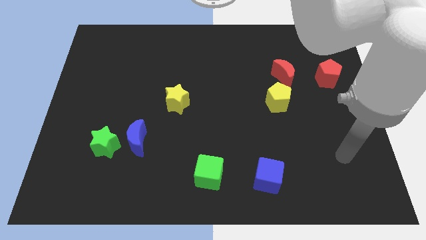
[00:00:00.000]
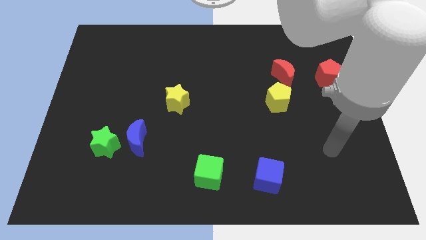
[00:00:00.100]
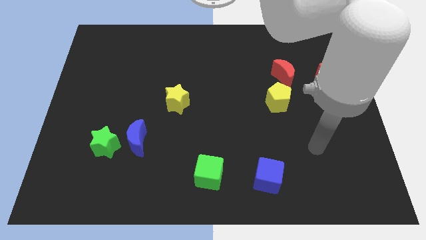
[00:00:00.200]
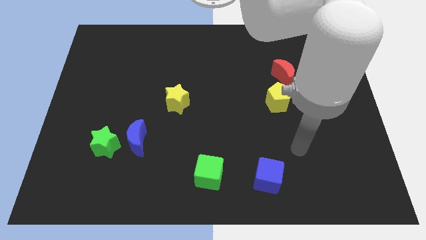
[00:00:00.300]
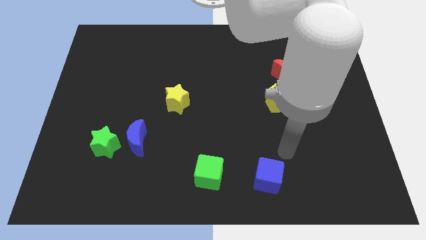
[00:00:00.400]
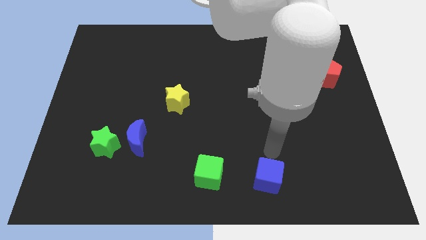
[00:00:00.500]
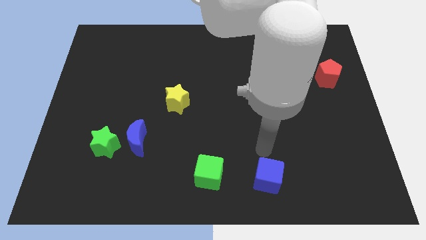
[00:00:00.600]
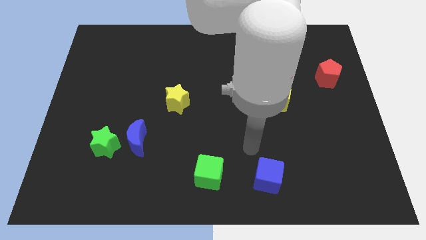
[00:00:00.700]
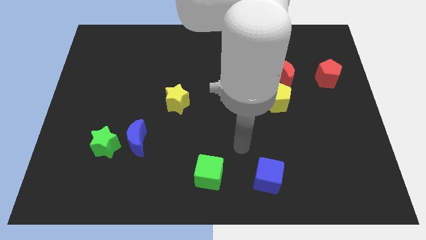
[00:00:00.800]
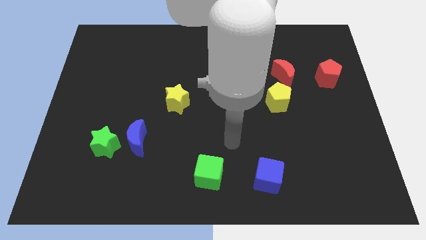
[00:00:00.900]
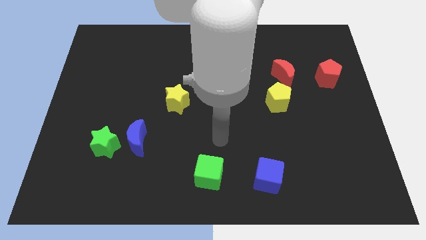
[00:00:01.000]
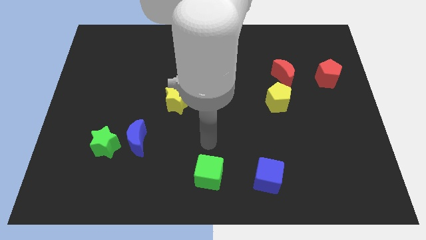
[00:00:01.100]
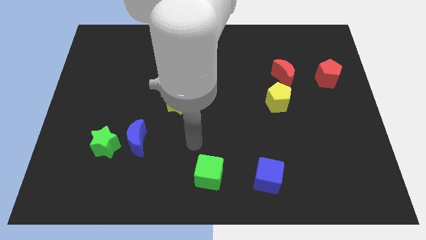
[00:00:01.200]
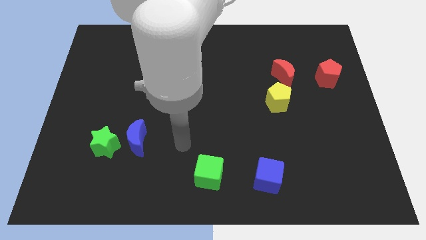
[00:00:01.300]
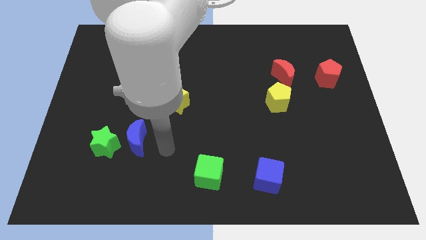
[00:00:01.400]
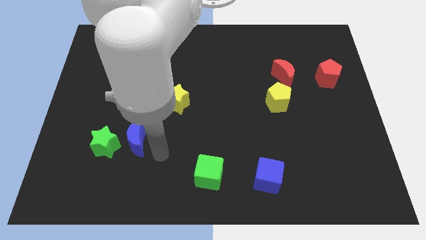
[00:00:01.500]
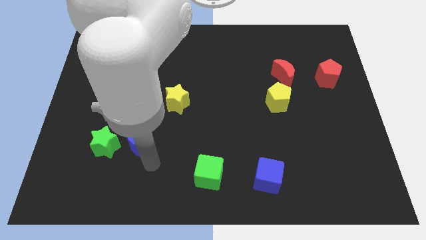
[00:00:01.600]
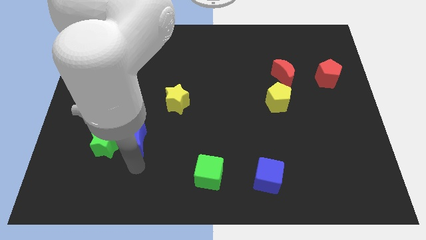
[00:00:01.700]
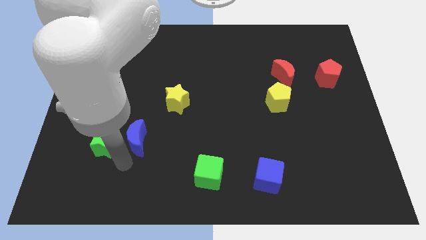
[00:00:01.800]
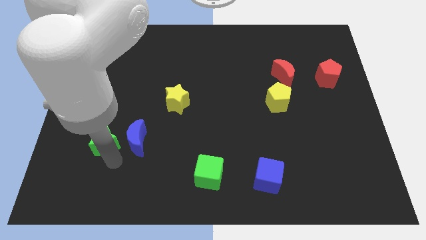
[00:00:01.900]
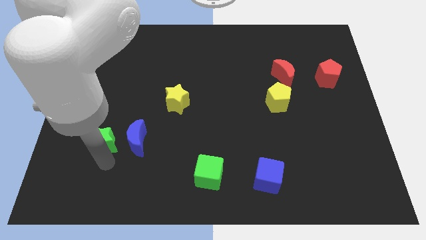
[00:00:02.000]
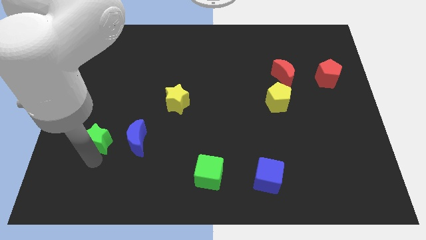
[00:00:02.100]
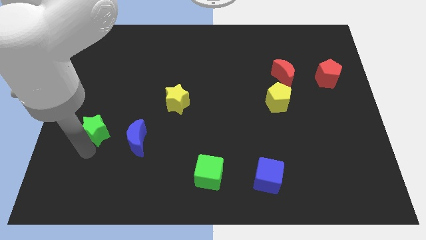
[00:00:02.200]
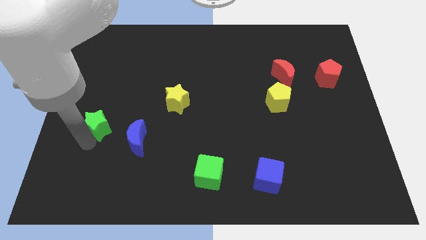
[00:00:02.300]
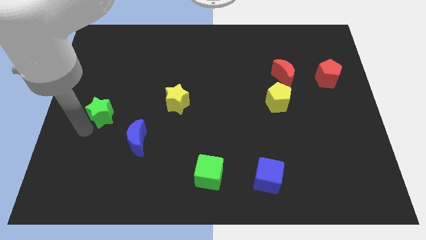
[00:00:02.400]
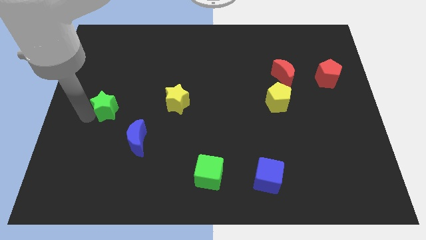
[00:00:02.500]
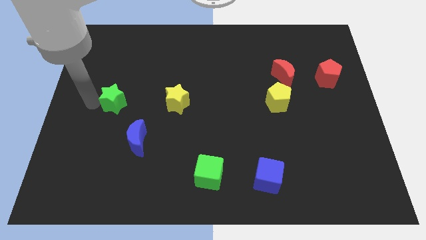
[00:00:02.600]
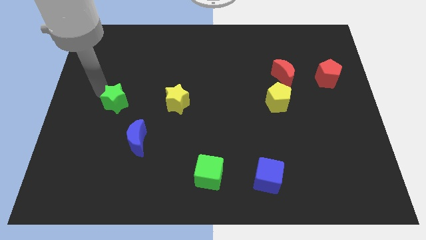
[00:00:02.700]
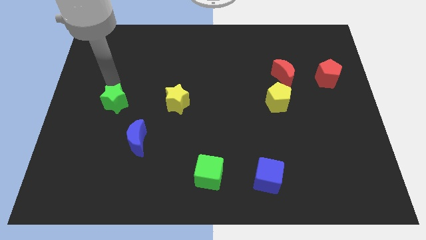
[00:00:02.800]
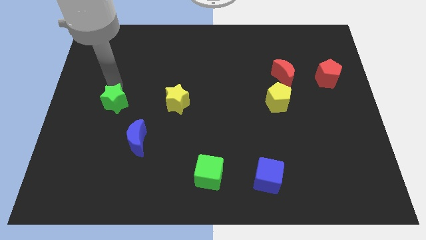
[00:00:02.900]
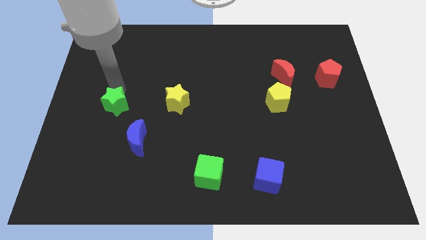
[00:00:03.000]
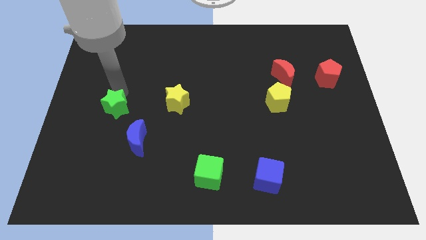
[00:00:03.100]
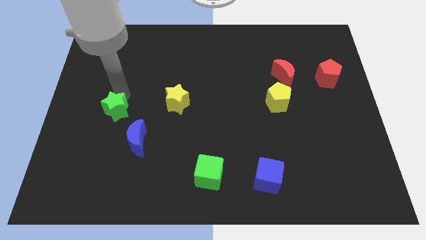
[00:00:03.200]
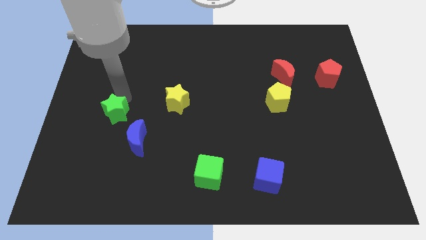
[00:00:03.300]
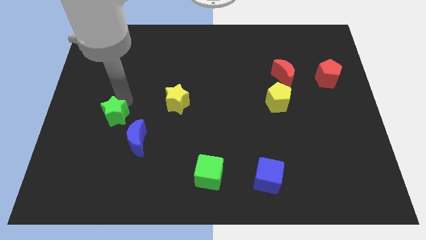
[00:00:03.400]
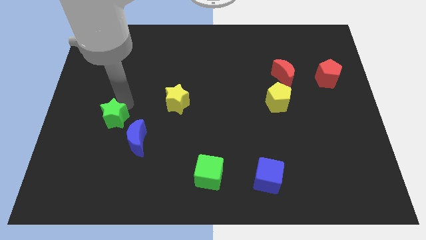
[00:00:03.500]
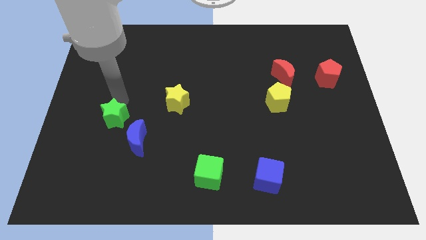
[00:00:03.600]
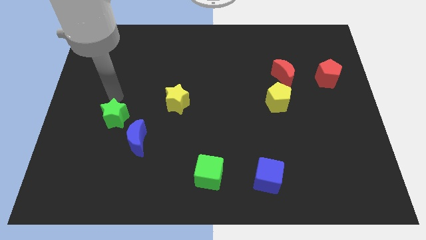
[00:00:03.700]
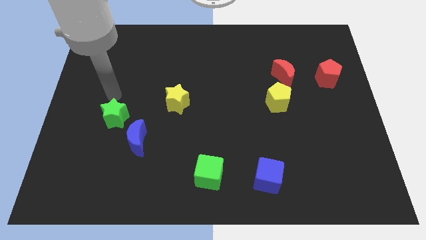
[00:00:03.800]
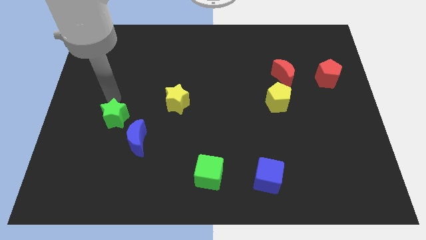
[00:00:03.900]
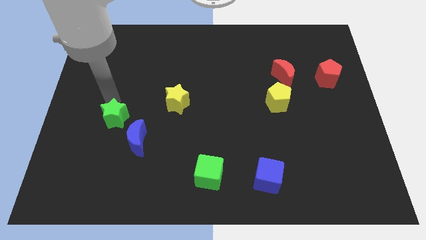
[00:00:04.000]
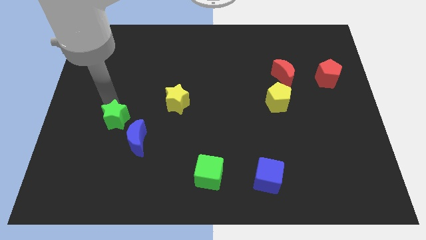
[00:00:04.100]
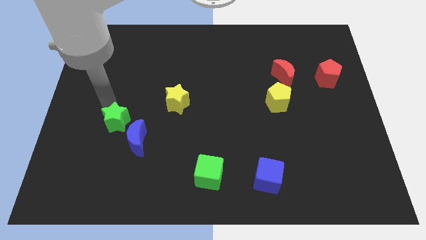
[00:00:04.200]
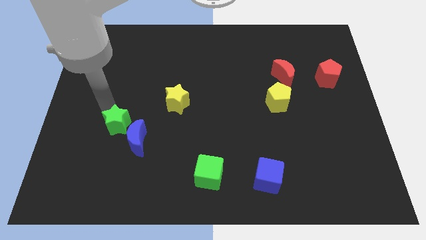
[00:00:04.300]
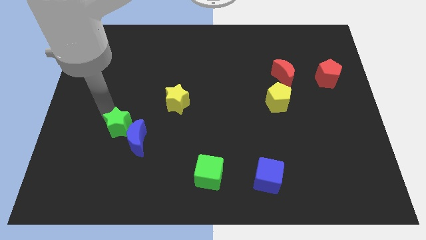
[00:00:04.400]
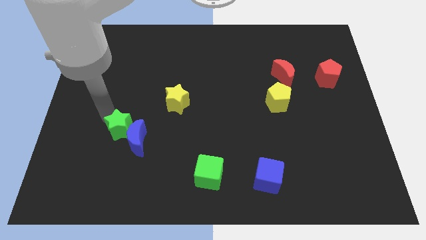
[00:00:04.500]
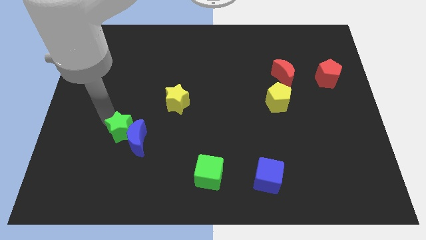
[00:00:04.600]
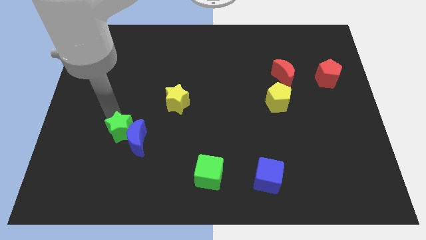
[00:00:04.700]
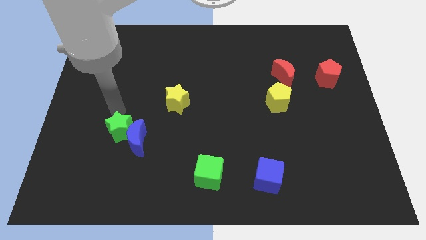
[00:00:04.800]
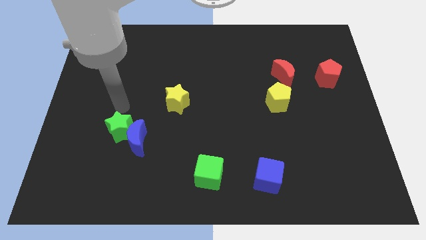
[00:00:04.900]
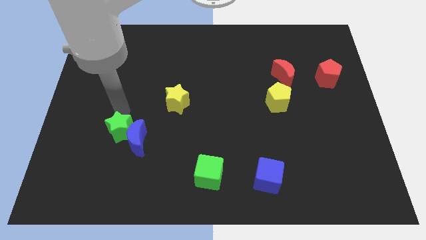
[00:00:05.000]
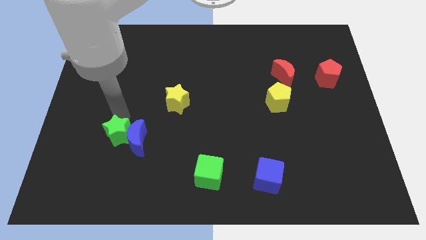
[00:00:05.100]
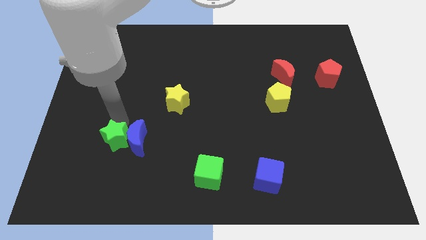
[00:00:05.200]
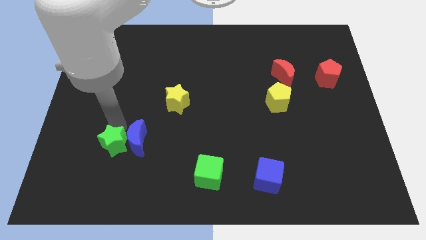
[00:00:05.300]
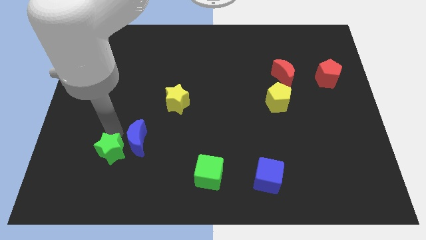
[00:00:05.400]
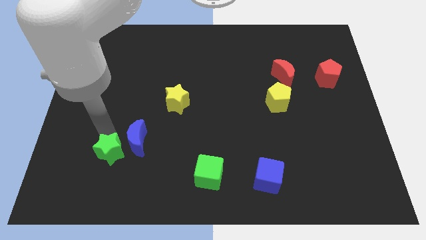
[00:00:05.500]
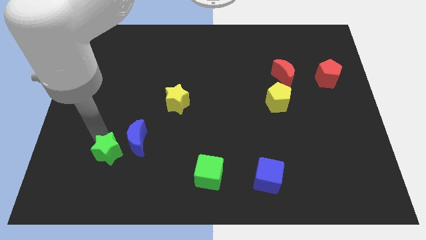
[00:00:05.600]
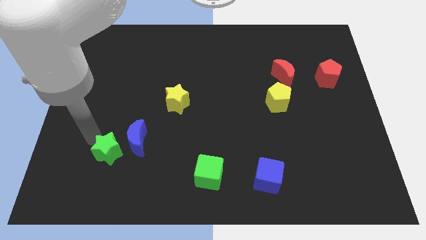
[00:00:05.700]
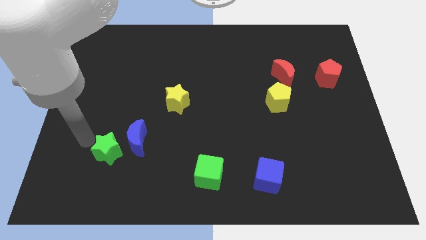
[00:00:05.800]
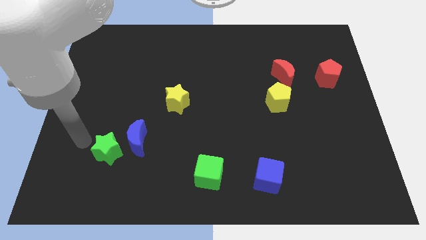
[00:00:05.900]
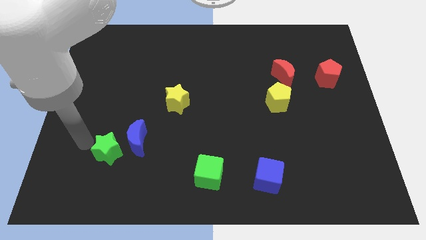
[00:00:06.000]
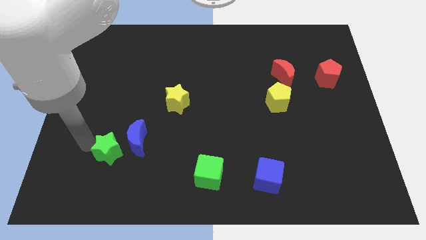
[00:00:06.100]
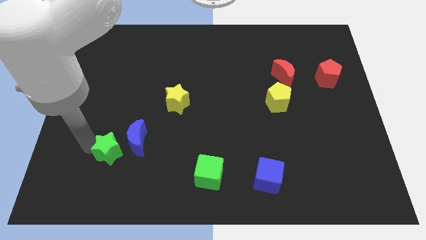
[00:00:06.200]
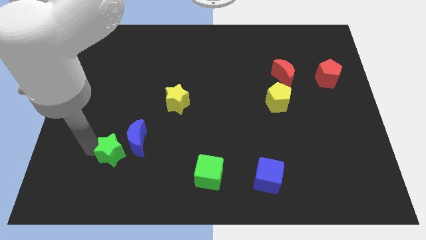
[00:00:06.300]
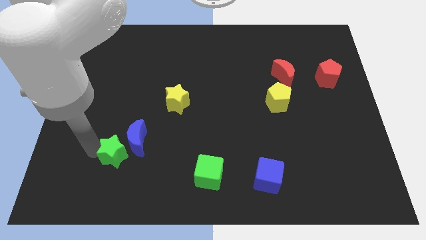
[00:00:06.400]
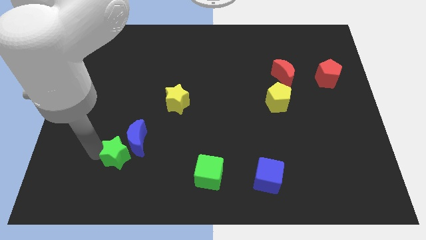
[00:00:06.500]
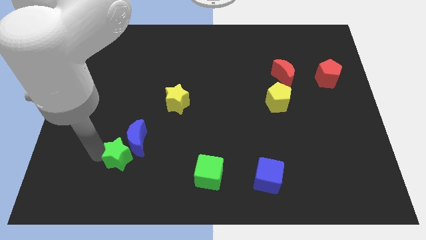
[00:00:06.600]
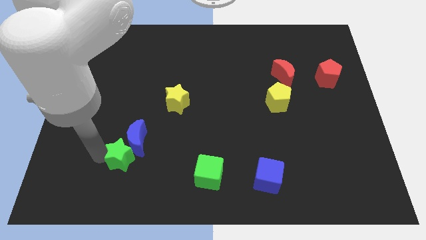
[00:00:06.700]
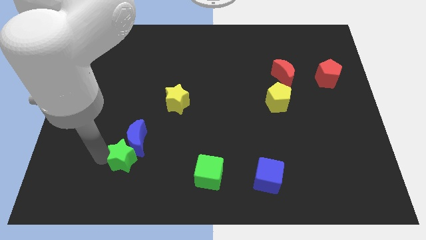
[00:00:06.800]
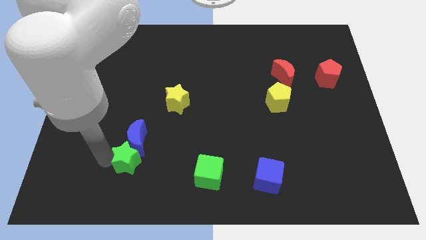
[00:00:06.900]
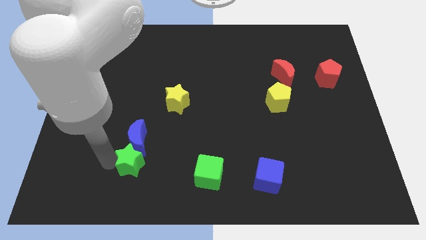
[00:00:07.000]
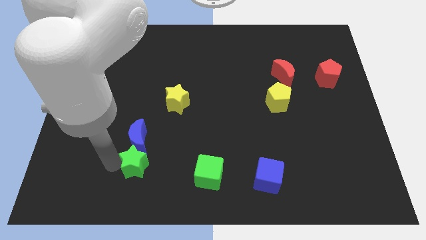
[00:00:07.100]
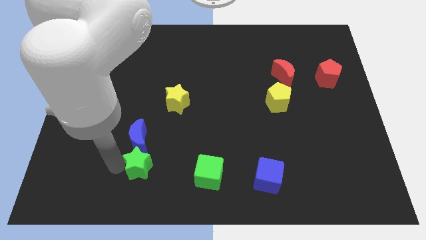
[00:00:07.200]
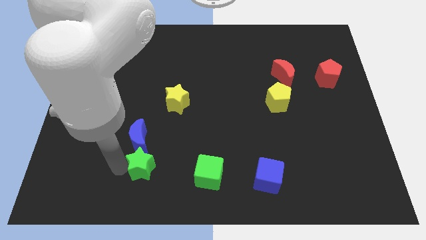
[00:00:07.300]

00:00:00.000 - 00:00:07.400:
slightly push the green star right

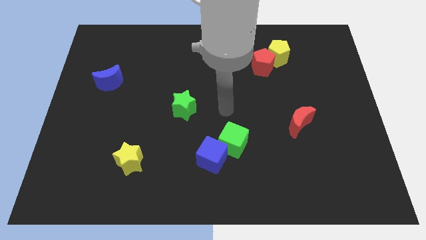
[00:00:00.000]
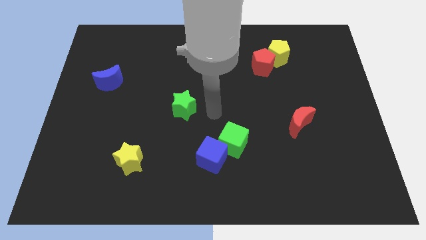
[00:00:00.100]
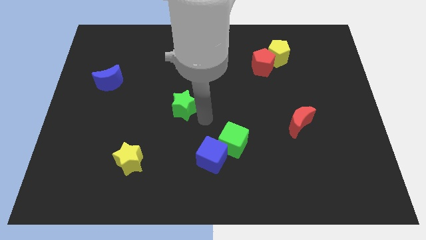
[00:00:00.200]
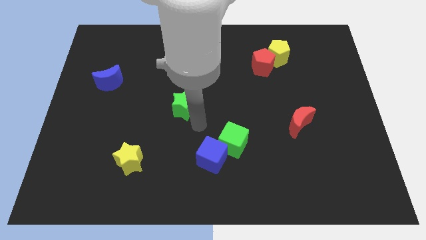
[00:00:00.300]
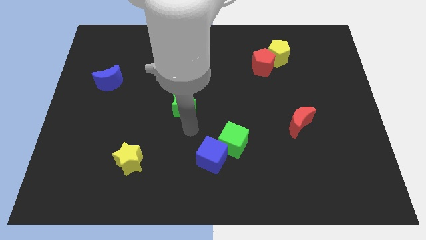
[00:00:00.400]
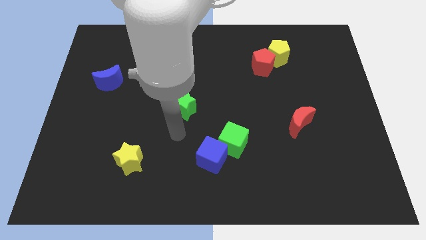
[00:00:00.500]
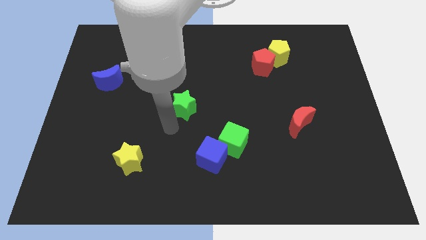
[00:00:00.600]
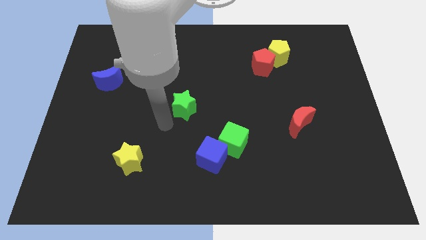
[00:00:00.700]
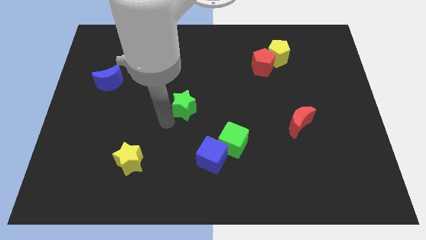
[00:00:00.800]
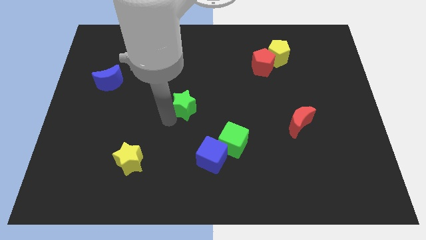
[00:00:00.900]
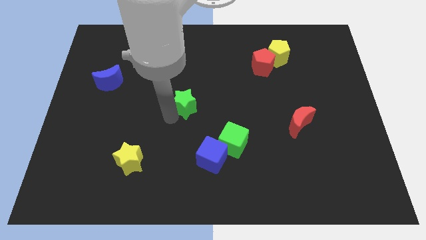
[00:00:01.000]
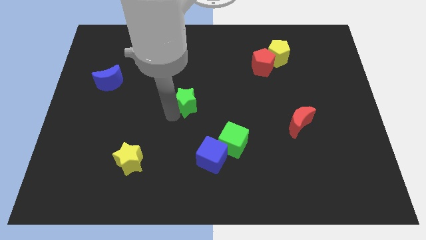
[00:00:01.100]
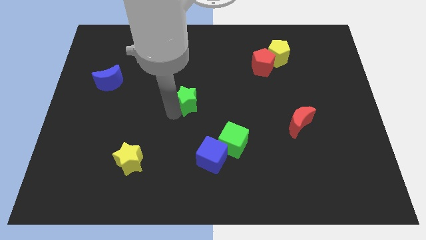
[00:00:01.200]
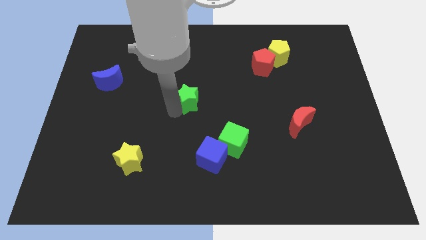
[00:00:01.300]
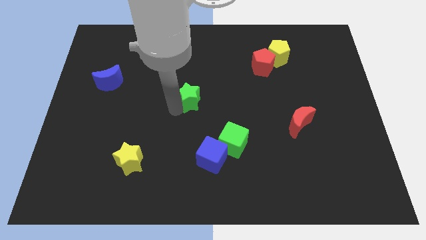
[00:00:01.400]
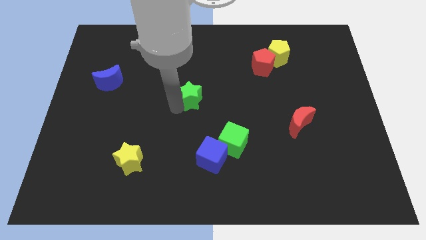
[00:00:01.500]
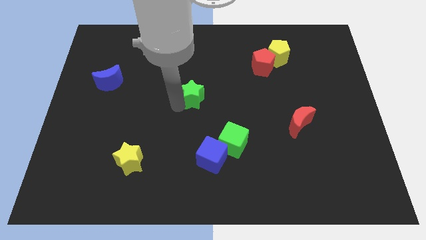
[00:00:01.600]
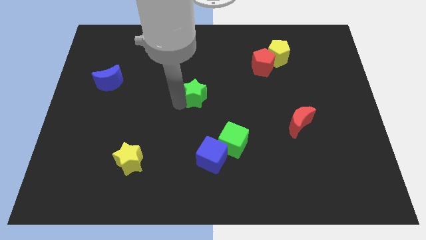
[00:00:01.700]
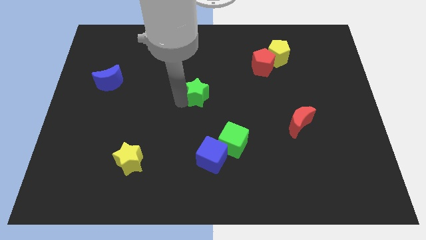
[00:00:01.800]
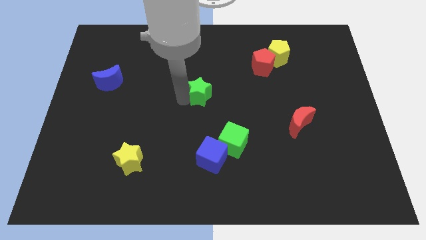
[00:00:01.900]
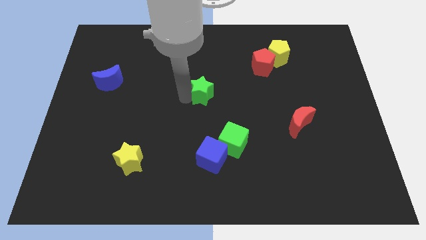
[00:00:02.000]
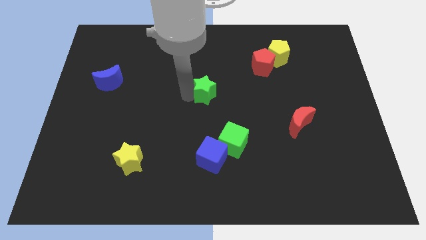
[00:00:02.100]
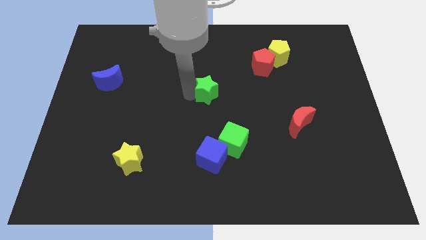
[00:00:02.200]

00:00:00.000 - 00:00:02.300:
move the green star slightly up and to the right
